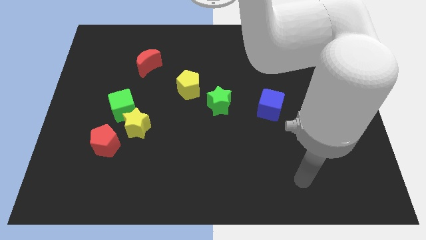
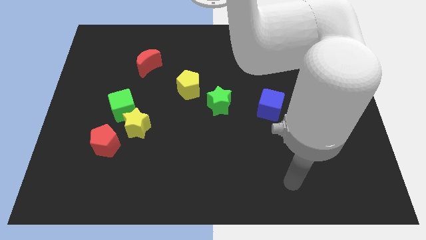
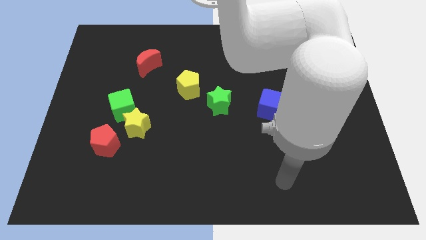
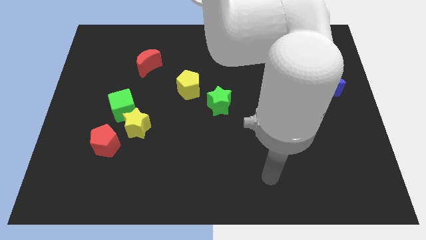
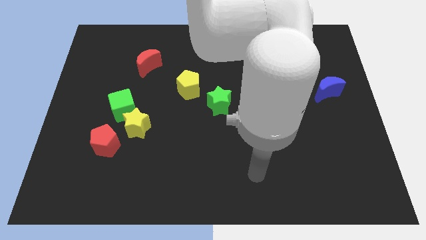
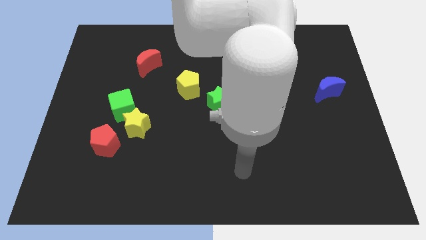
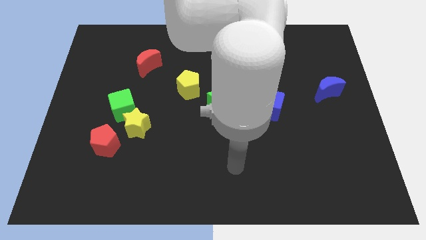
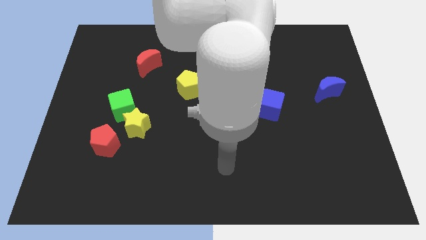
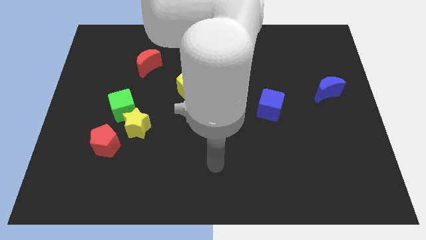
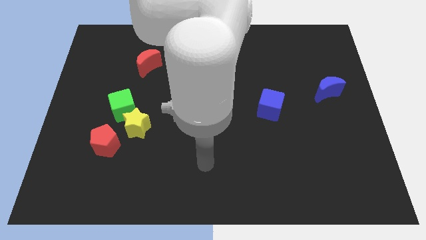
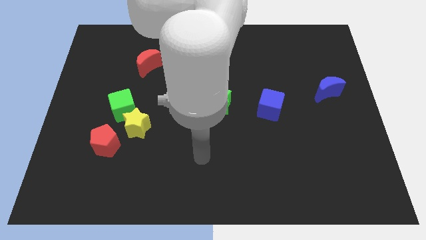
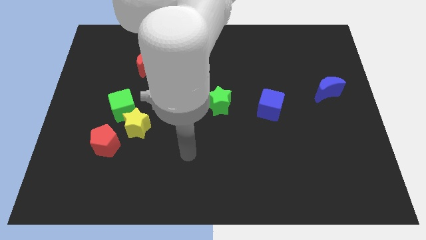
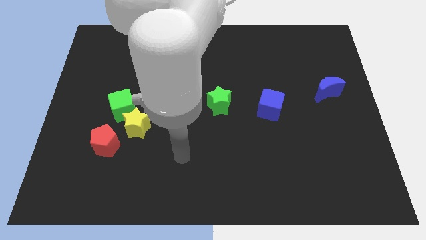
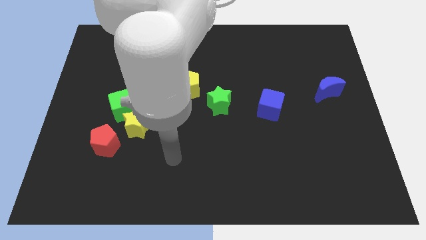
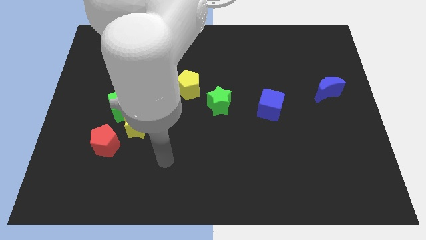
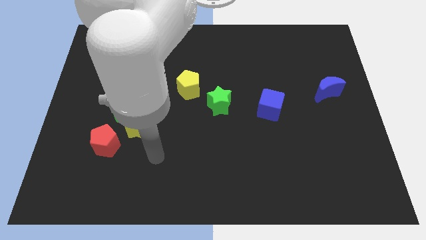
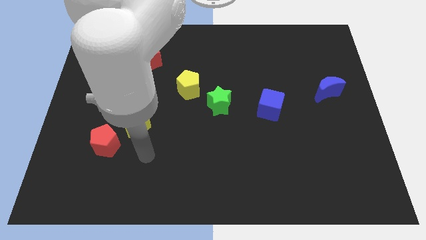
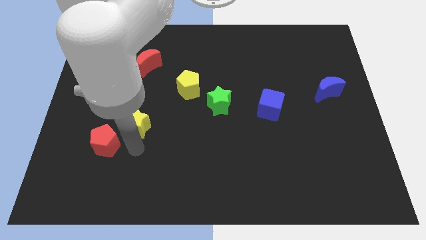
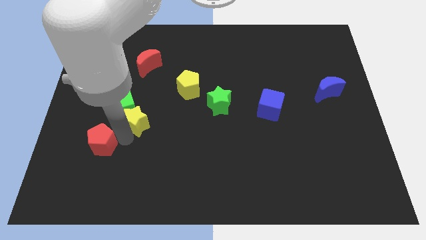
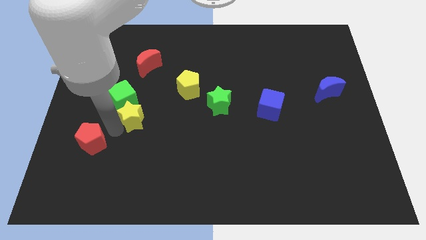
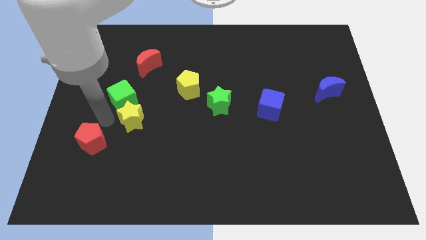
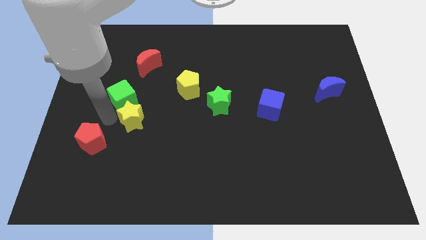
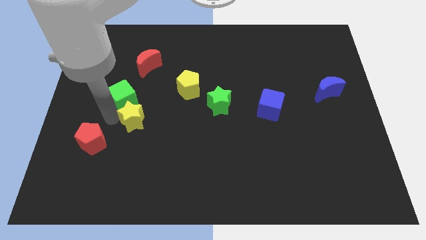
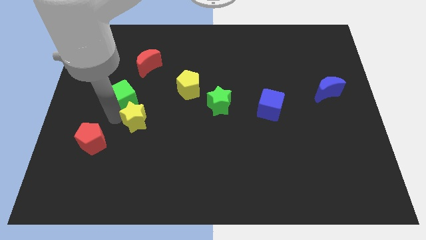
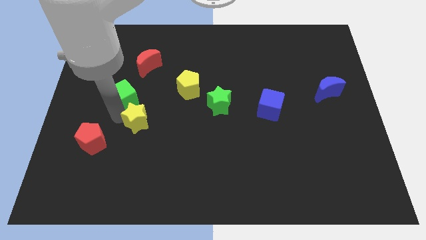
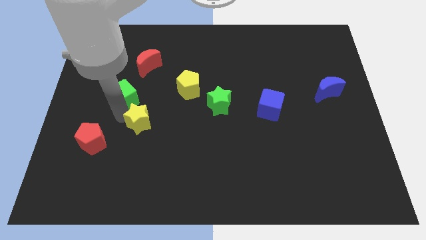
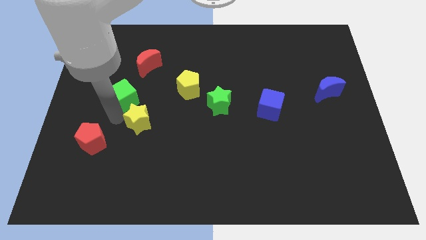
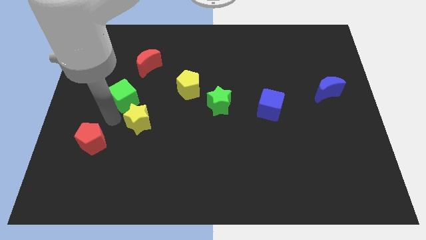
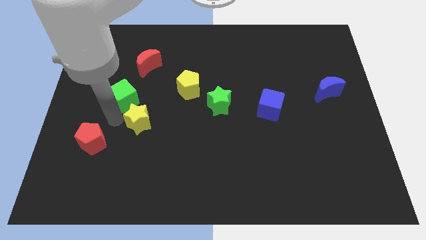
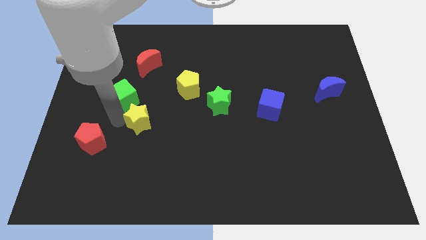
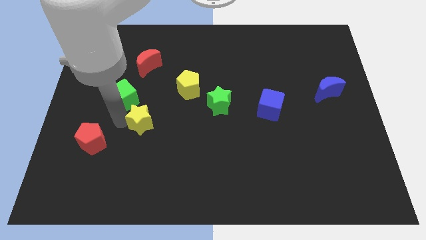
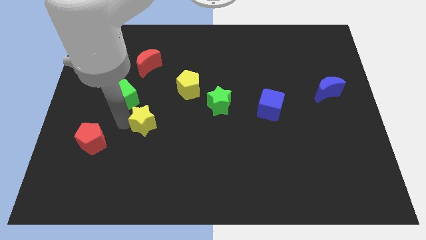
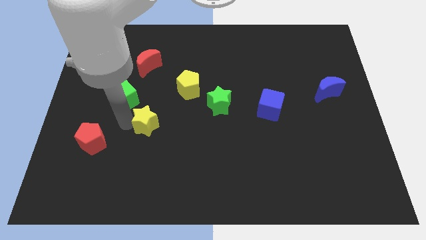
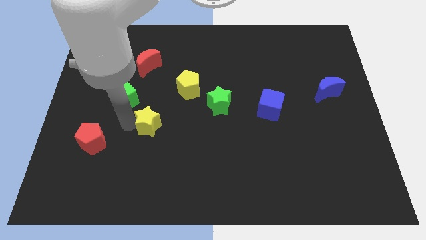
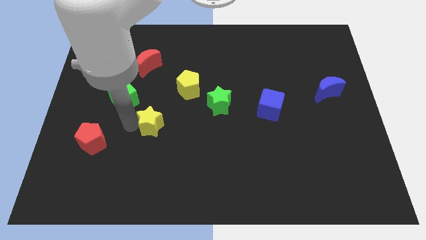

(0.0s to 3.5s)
move the yellow star away from the green cube and red pentagon

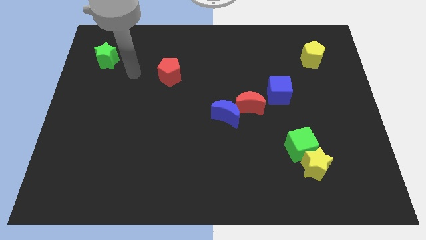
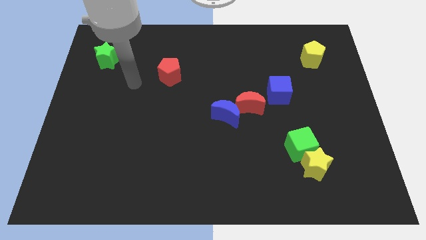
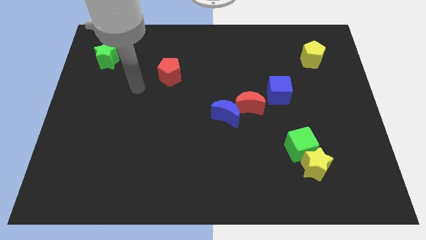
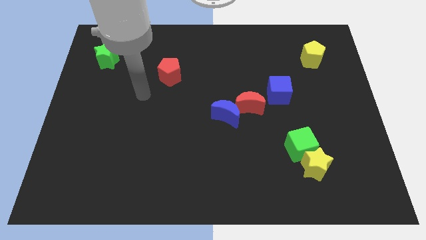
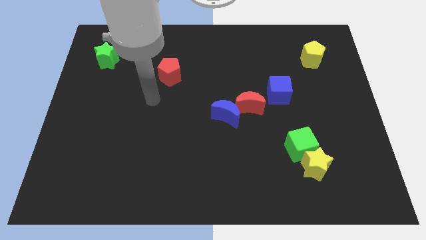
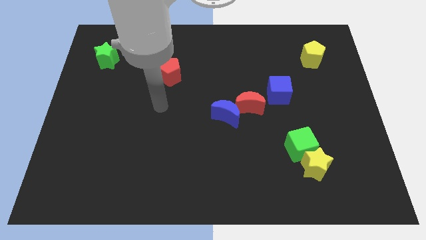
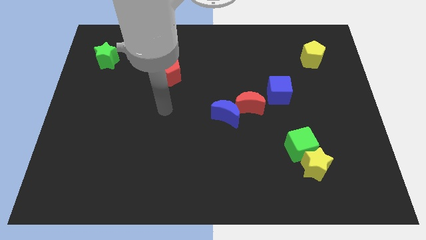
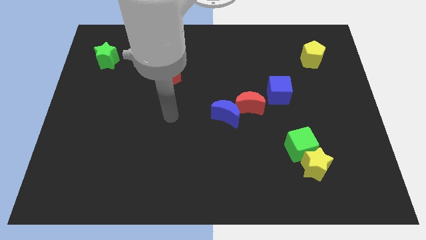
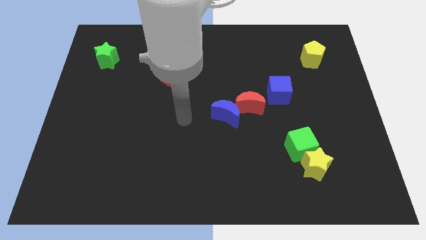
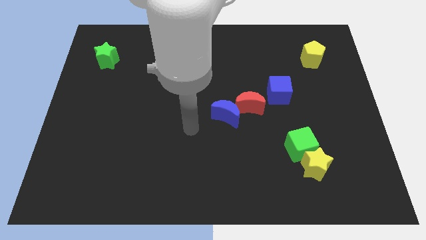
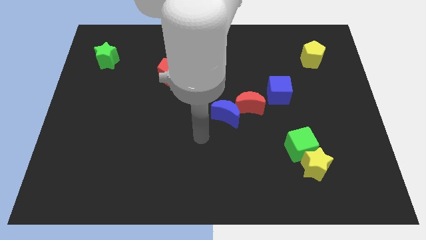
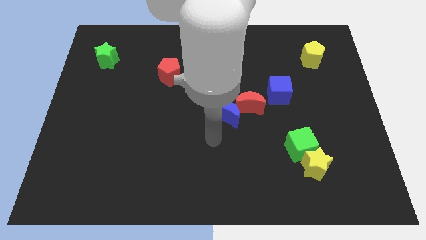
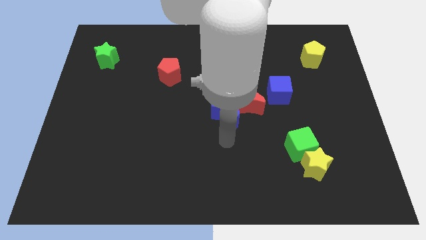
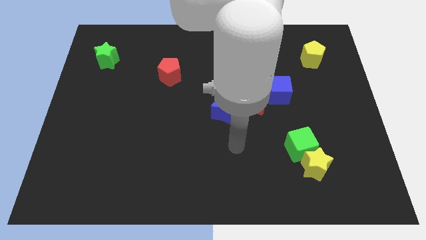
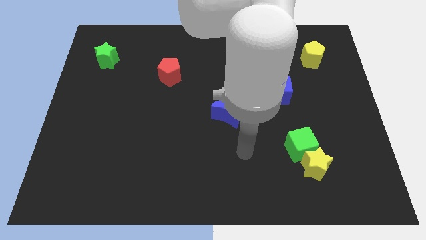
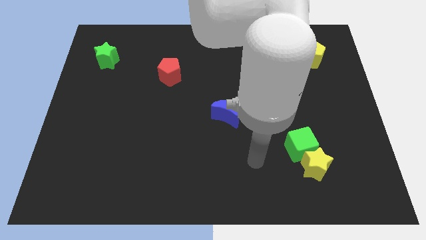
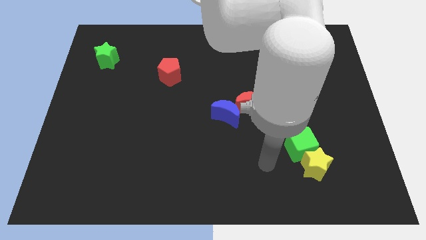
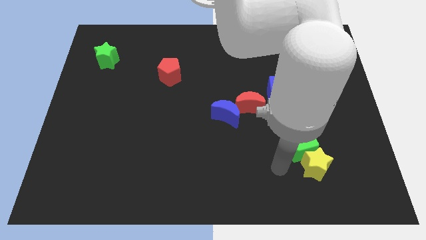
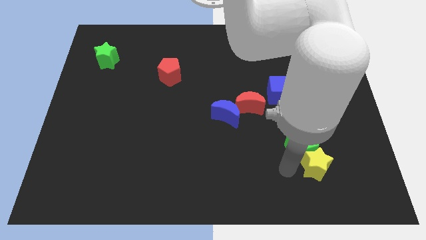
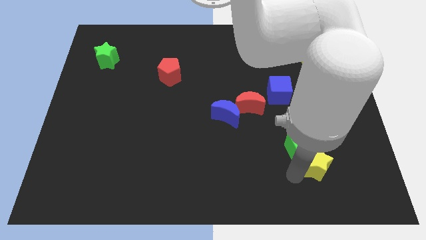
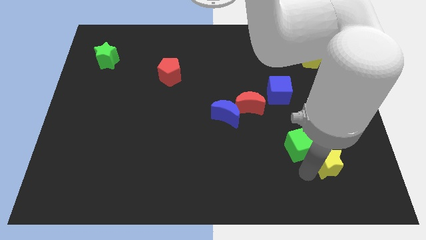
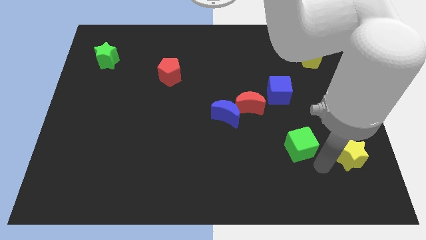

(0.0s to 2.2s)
separate the green cube from the yellow star

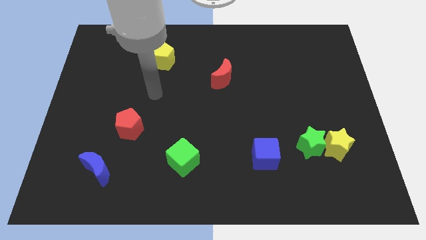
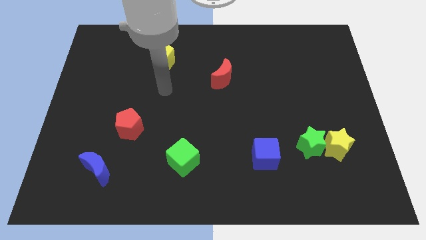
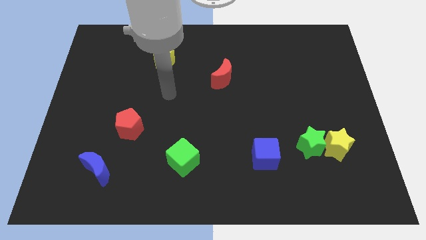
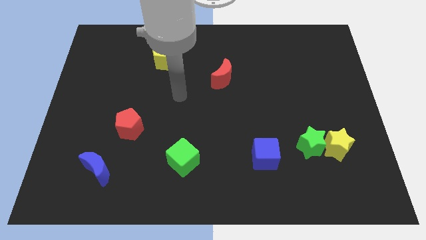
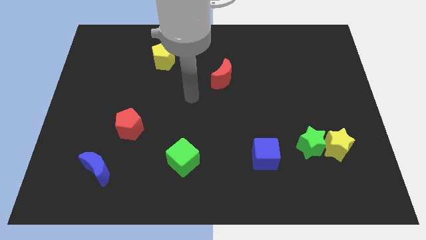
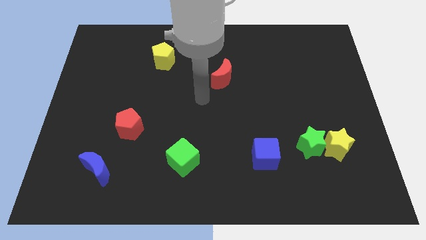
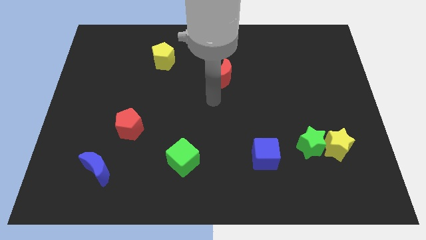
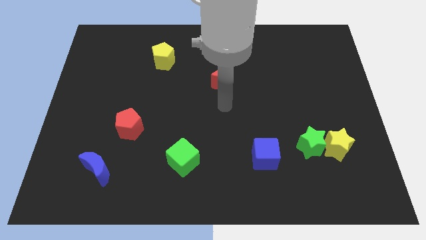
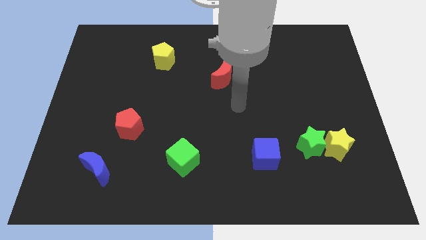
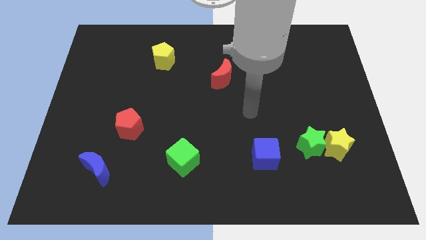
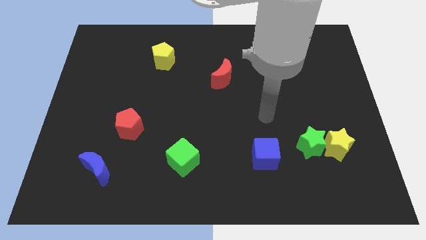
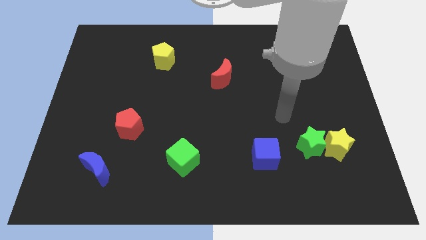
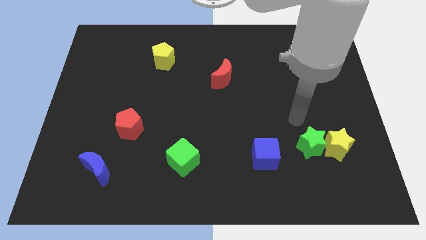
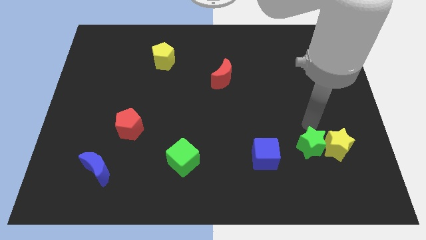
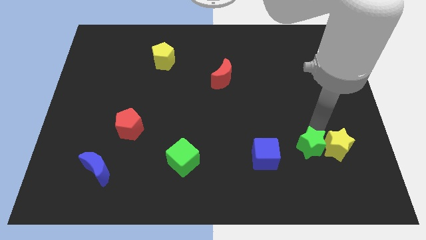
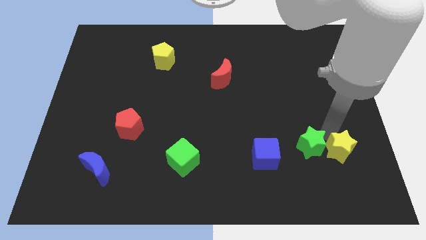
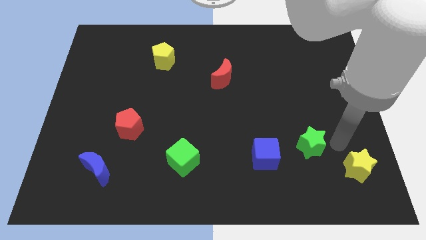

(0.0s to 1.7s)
move the green star away from the yellow star

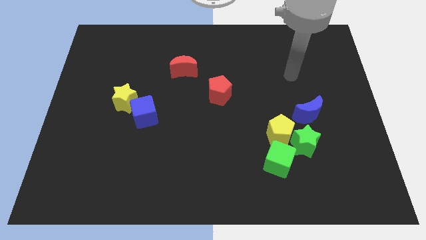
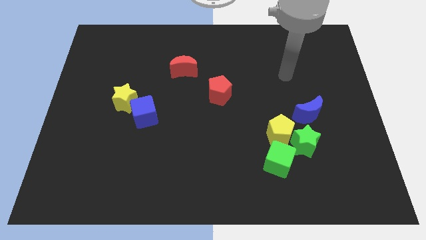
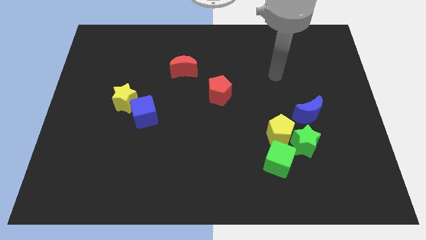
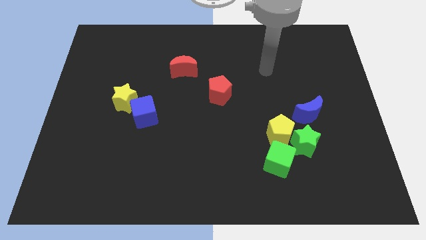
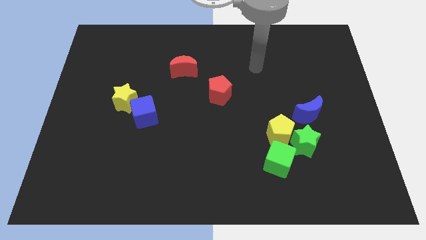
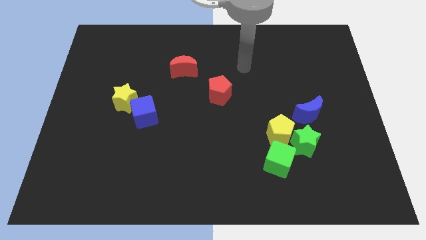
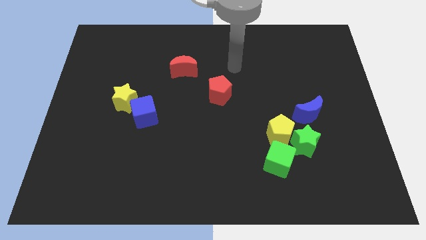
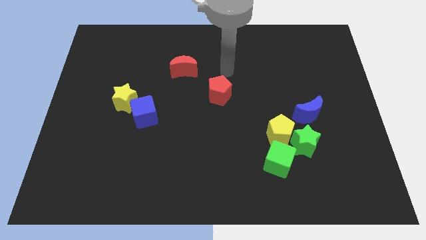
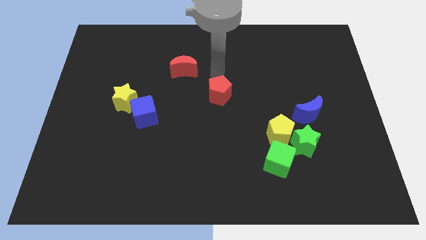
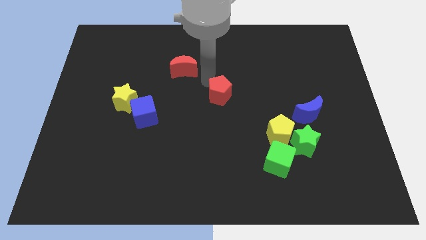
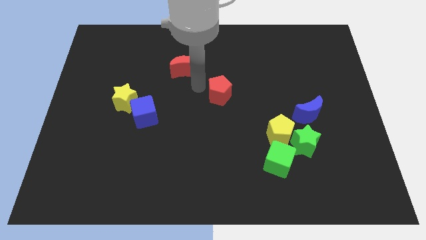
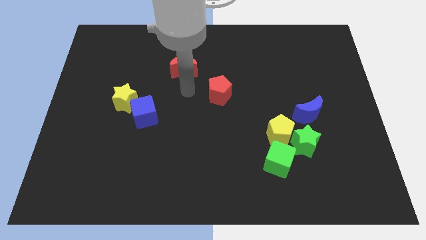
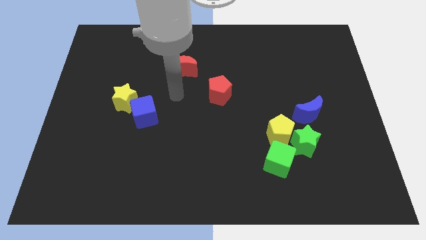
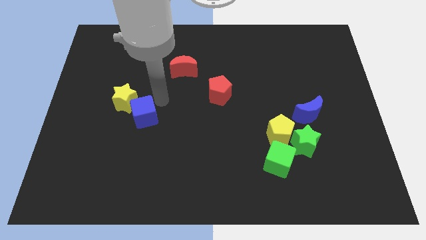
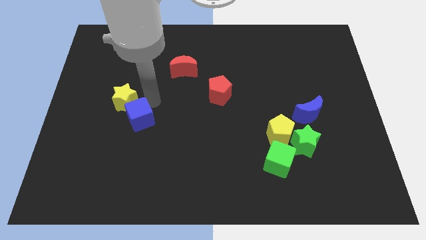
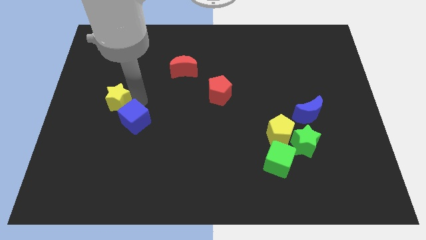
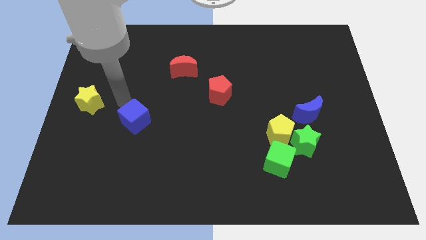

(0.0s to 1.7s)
separate the blue cube from the yellow star

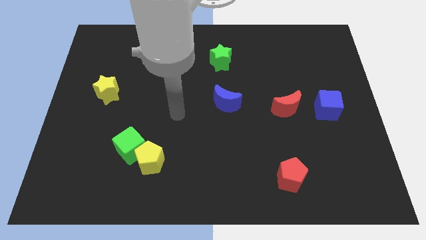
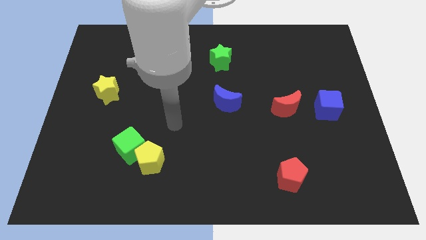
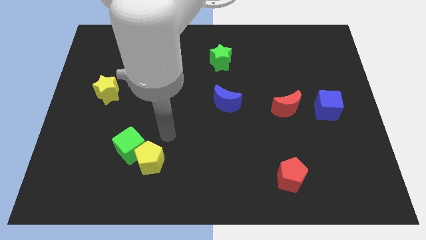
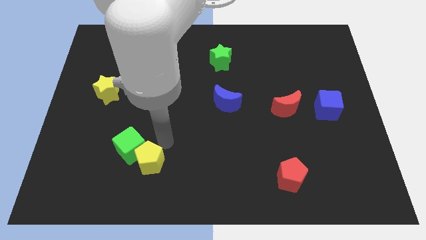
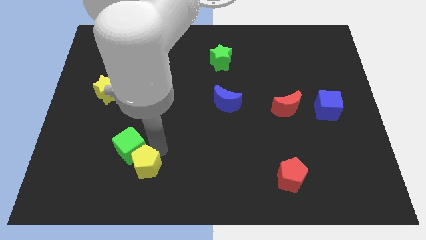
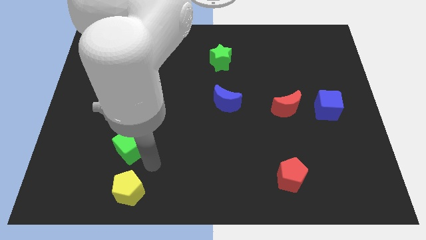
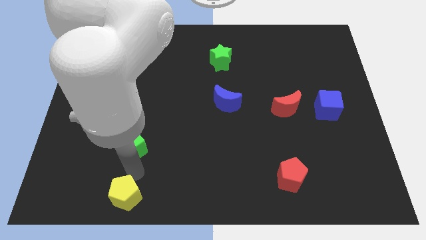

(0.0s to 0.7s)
pull the green cube apart from the yellow pentagon
